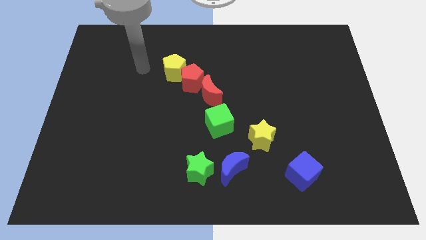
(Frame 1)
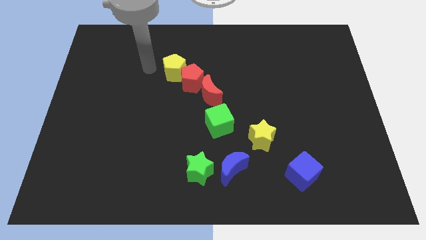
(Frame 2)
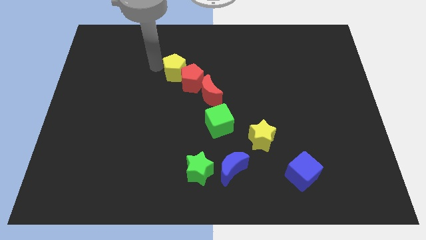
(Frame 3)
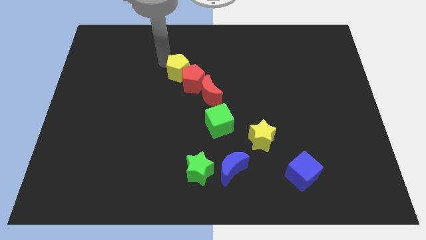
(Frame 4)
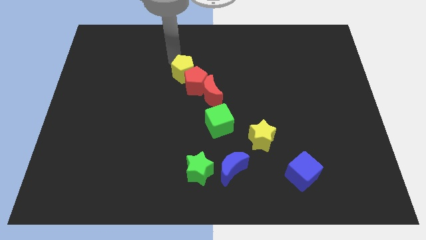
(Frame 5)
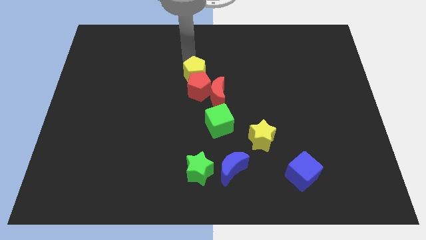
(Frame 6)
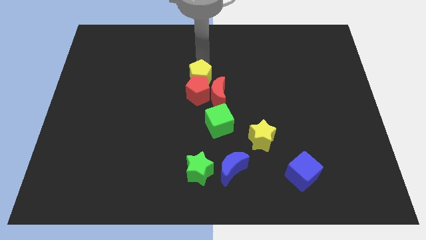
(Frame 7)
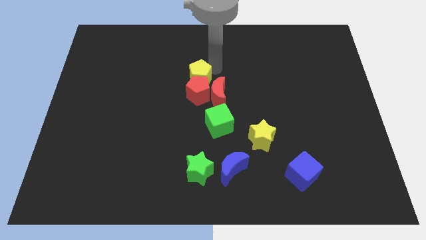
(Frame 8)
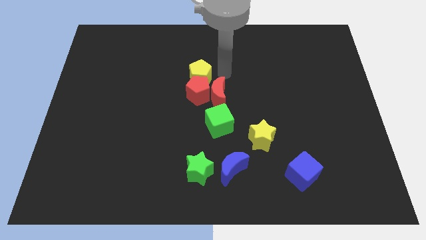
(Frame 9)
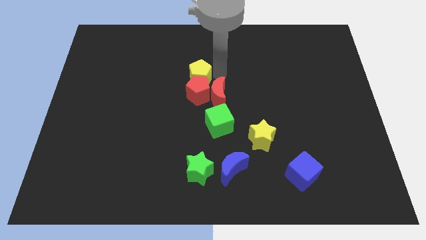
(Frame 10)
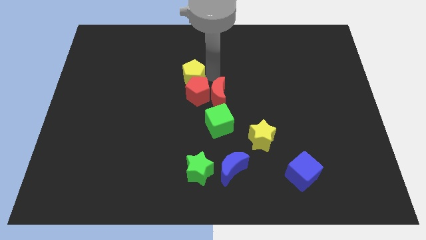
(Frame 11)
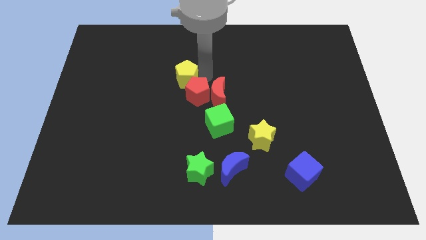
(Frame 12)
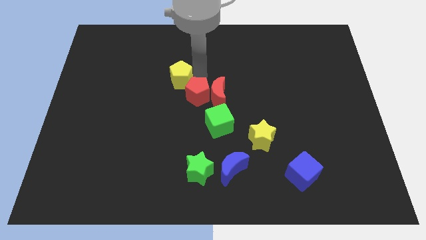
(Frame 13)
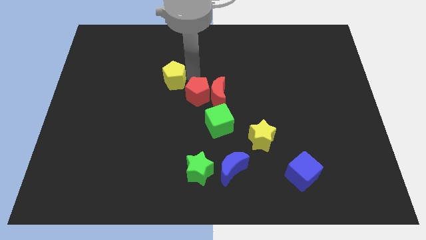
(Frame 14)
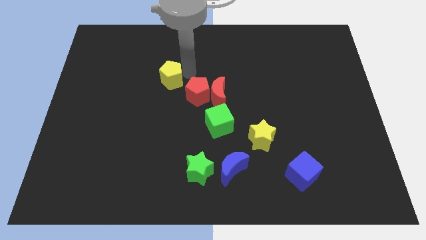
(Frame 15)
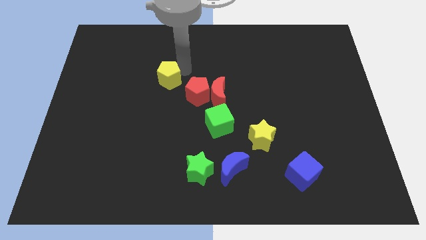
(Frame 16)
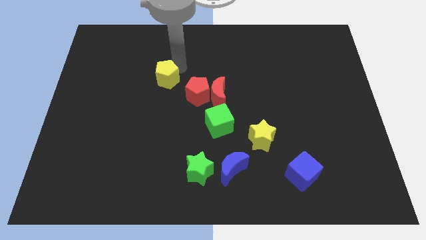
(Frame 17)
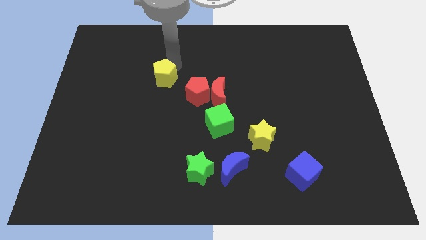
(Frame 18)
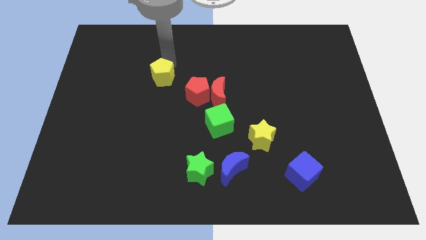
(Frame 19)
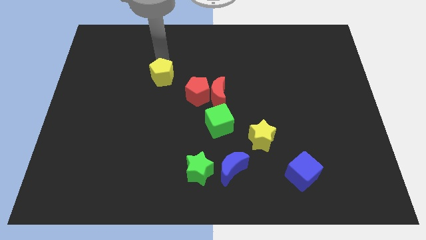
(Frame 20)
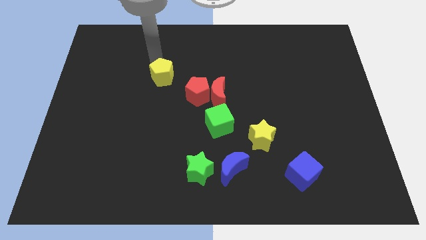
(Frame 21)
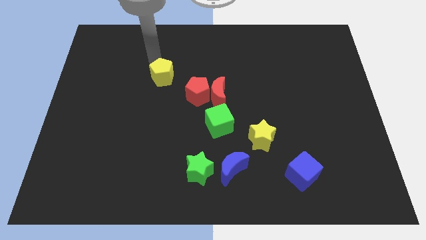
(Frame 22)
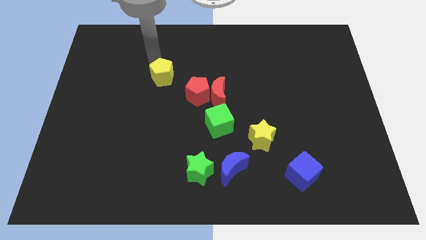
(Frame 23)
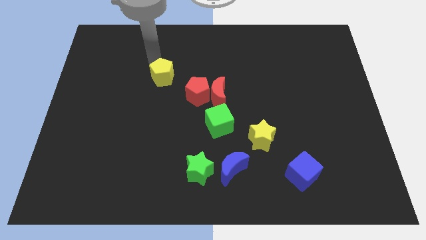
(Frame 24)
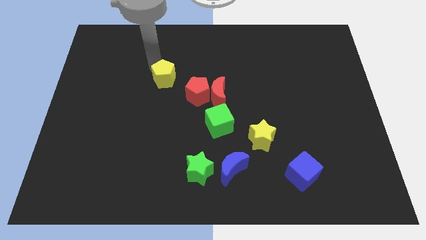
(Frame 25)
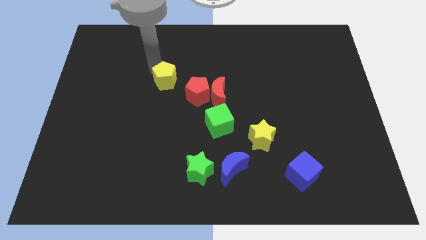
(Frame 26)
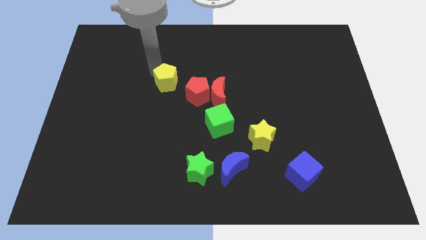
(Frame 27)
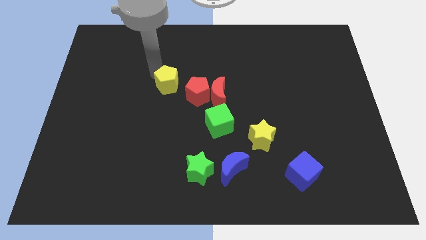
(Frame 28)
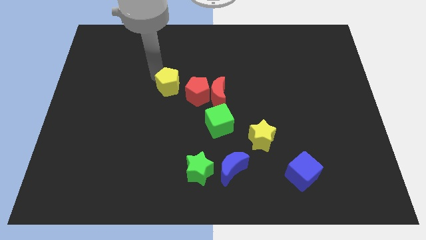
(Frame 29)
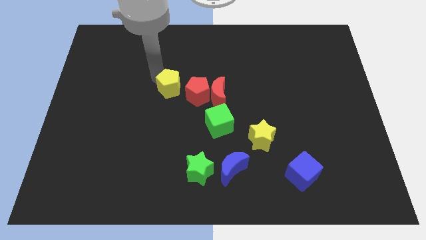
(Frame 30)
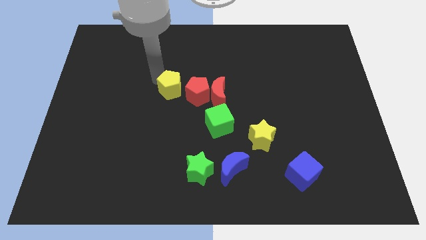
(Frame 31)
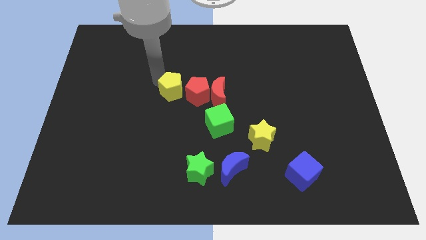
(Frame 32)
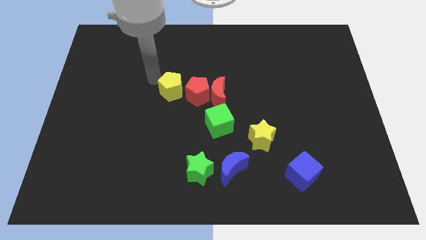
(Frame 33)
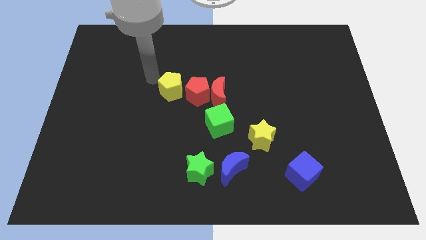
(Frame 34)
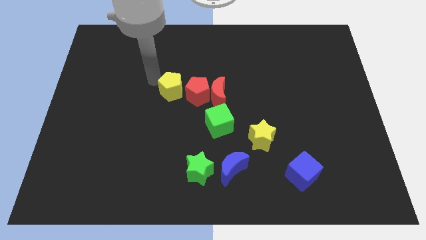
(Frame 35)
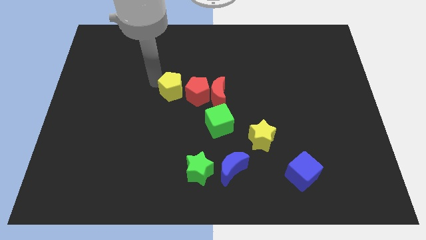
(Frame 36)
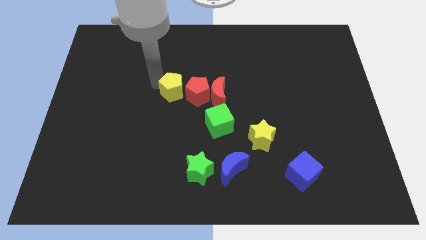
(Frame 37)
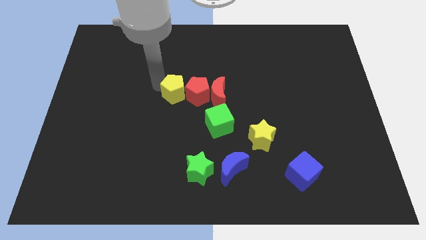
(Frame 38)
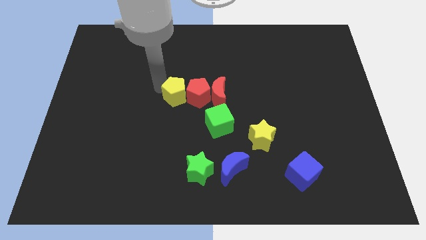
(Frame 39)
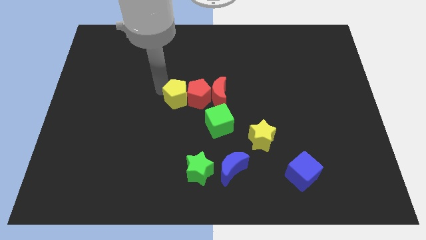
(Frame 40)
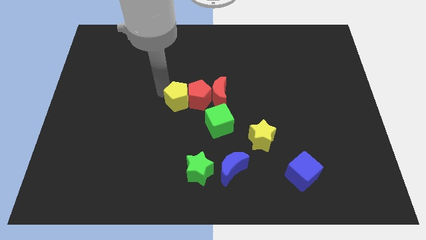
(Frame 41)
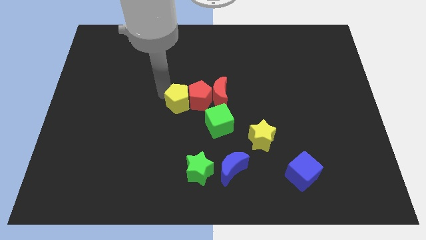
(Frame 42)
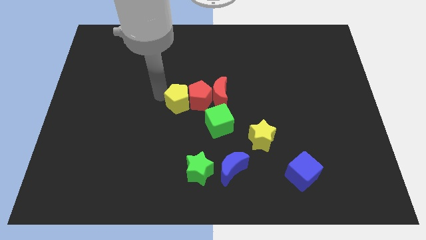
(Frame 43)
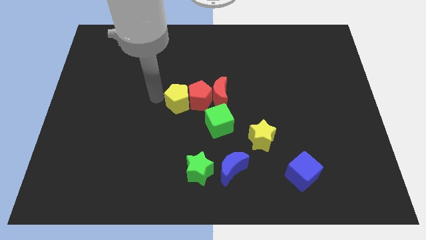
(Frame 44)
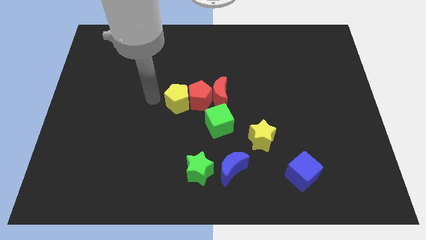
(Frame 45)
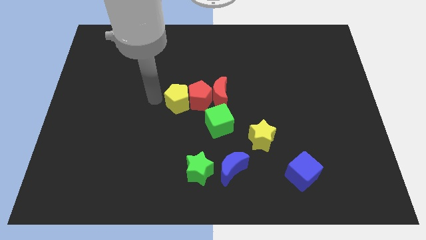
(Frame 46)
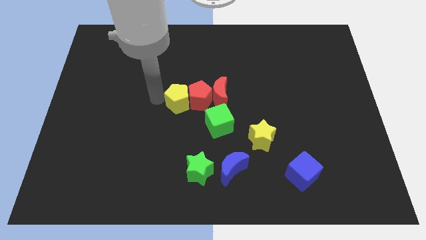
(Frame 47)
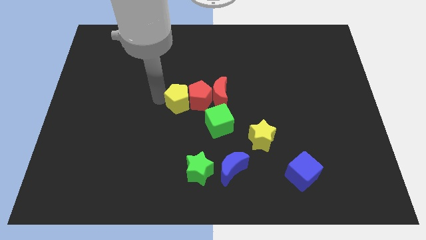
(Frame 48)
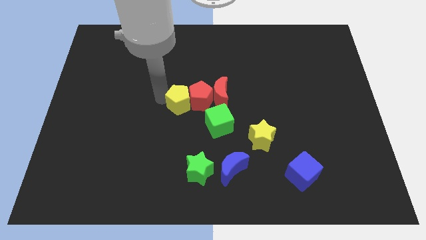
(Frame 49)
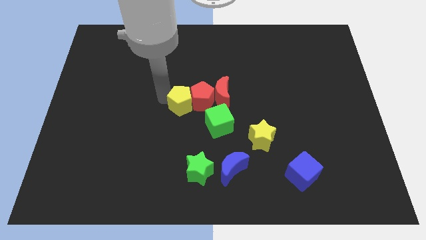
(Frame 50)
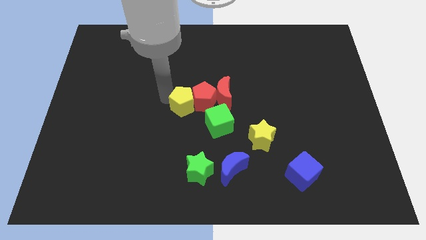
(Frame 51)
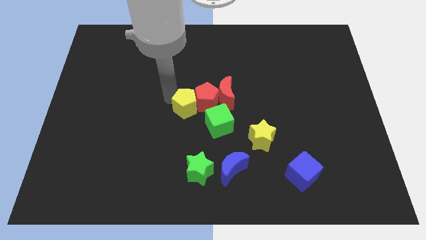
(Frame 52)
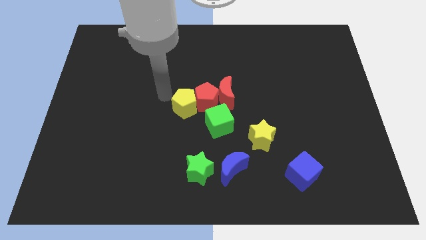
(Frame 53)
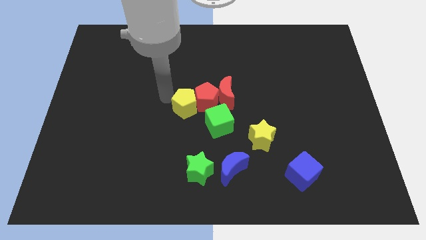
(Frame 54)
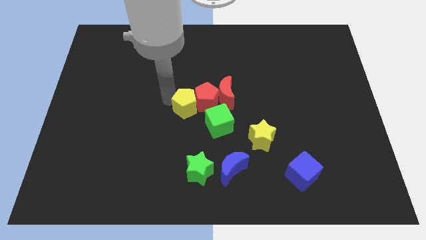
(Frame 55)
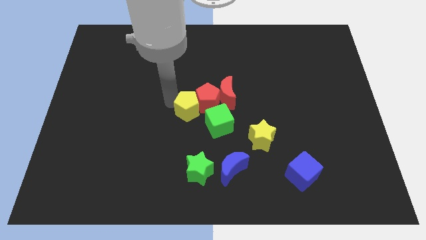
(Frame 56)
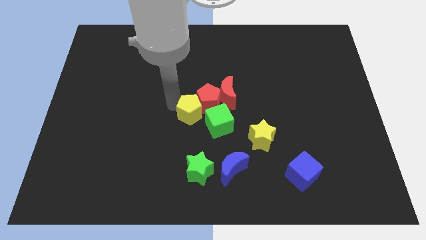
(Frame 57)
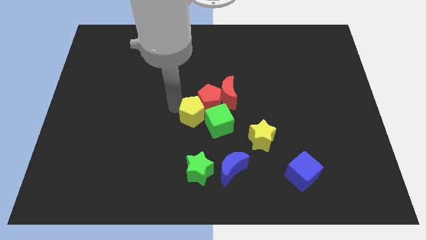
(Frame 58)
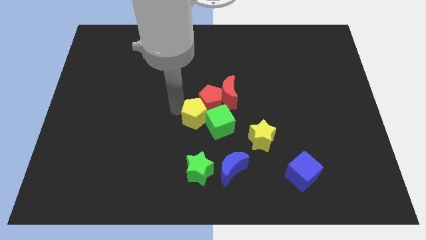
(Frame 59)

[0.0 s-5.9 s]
slide the yellow pentagon next to the green cube

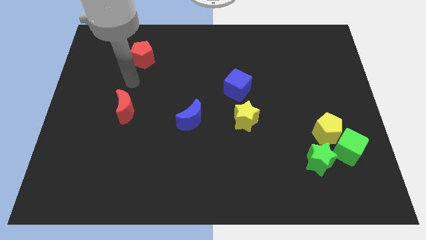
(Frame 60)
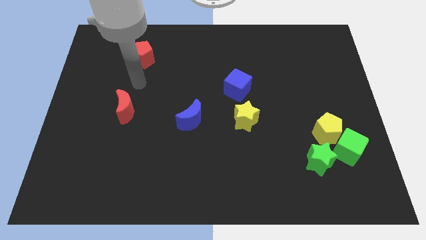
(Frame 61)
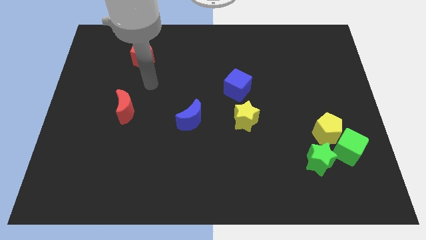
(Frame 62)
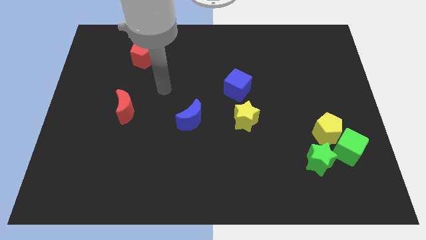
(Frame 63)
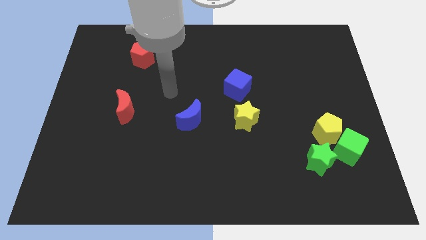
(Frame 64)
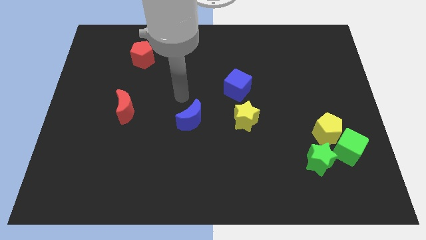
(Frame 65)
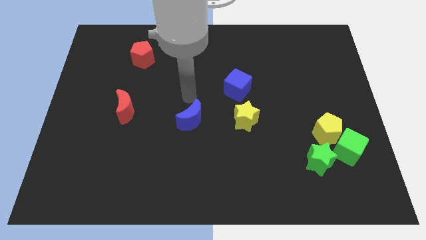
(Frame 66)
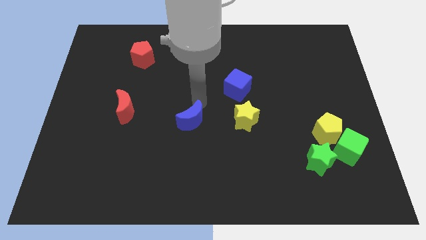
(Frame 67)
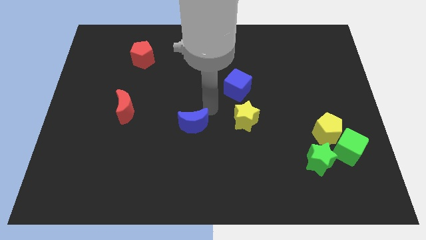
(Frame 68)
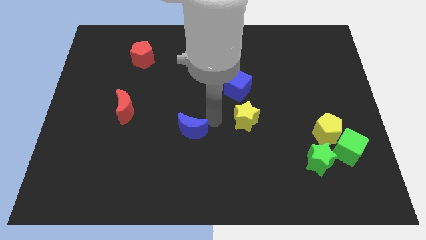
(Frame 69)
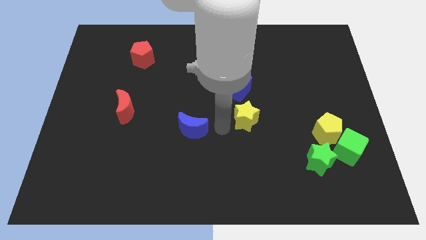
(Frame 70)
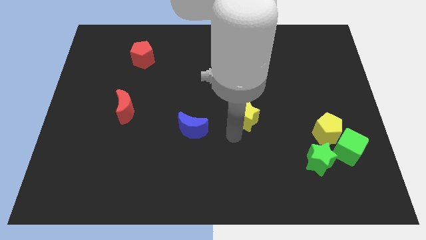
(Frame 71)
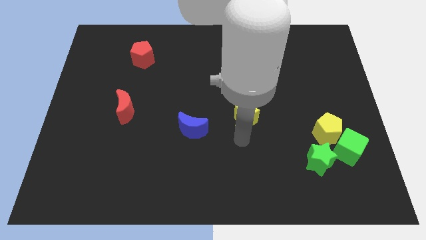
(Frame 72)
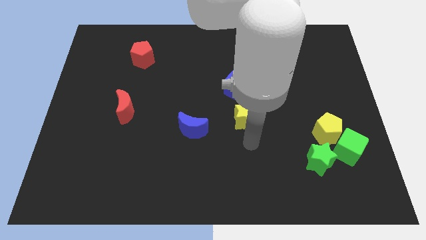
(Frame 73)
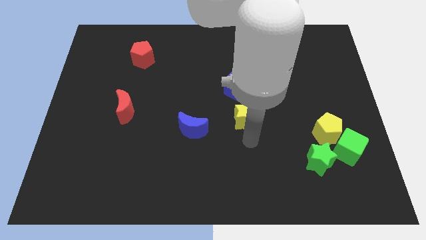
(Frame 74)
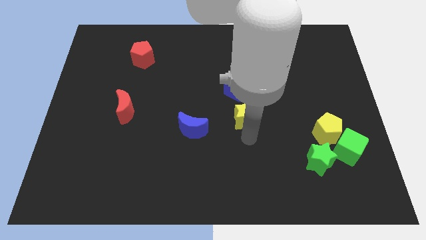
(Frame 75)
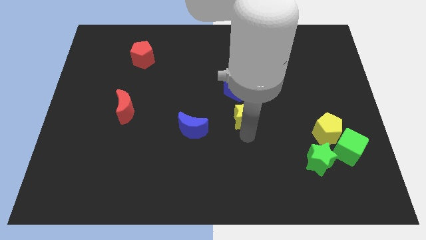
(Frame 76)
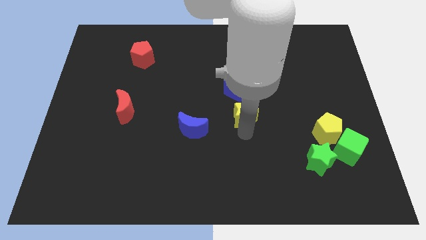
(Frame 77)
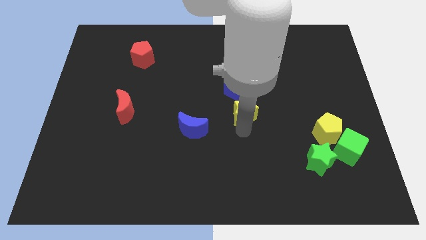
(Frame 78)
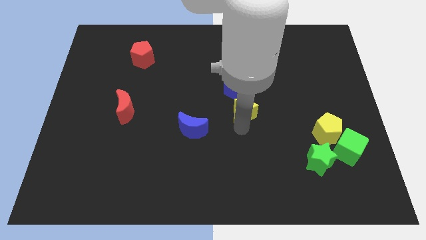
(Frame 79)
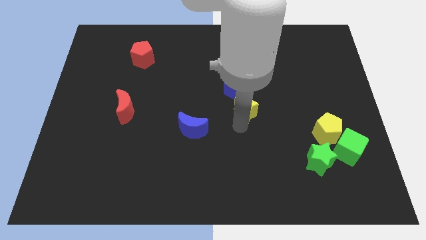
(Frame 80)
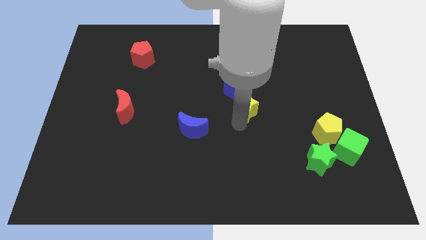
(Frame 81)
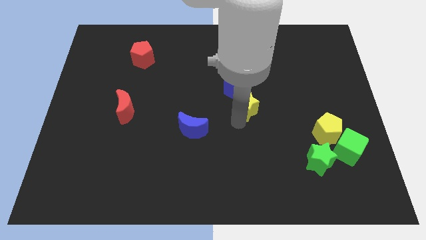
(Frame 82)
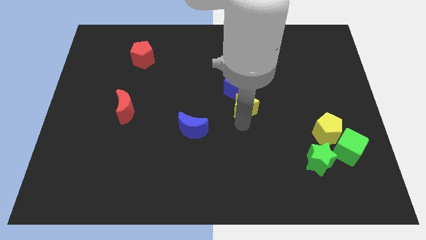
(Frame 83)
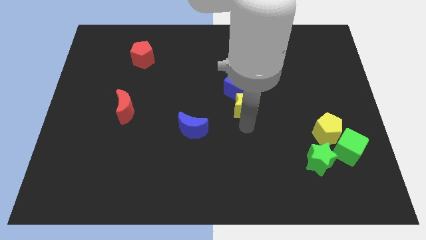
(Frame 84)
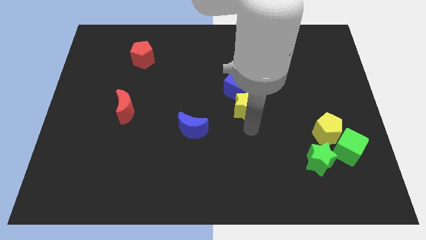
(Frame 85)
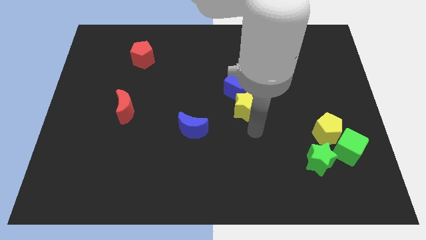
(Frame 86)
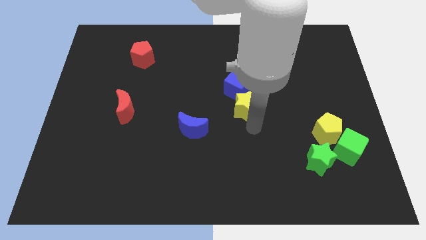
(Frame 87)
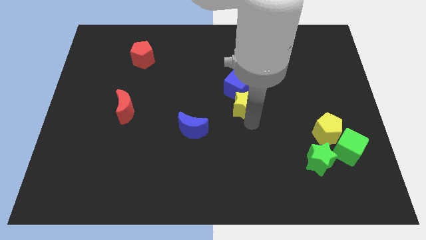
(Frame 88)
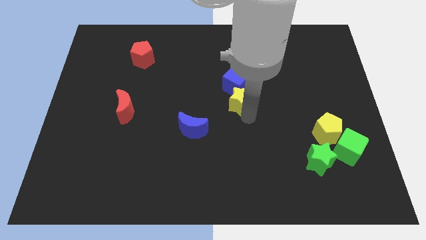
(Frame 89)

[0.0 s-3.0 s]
move the yellow star close to the blue cube
